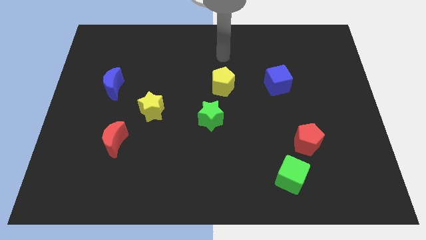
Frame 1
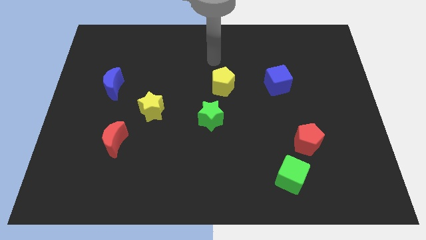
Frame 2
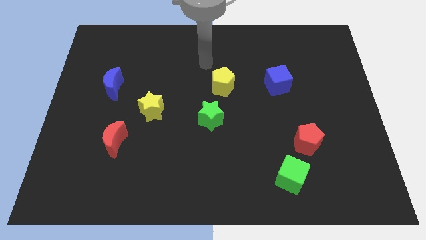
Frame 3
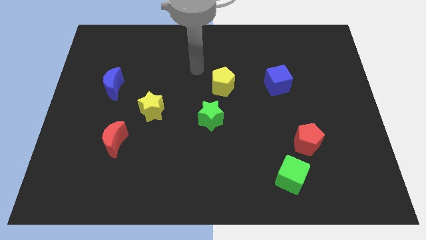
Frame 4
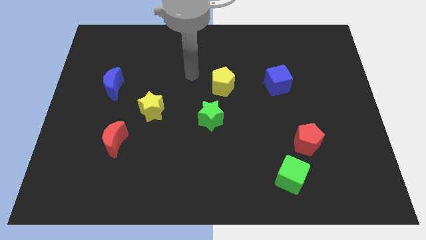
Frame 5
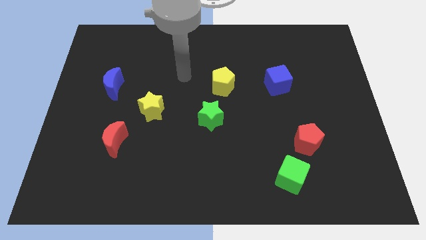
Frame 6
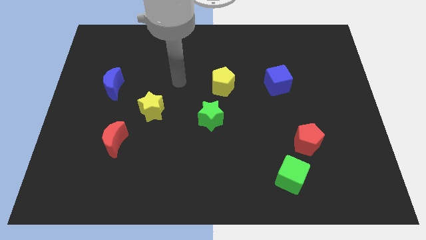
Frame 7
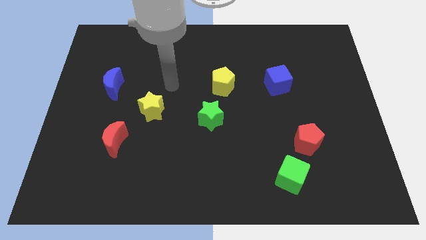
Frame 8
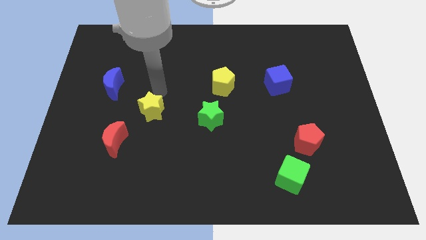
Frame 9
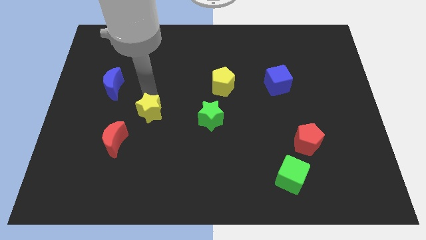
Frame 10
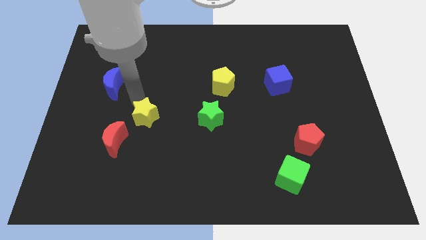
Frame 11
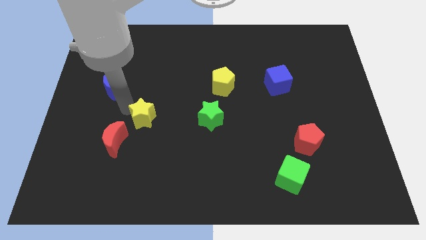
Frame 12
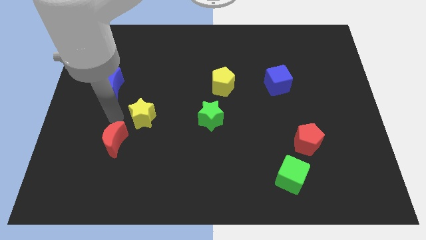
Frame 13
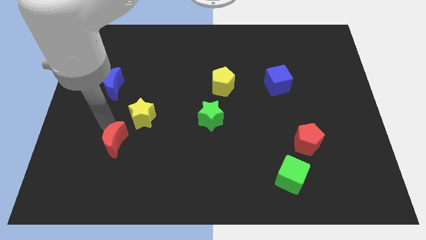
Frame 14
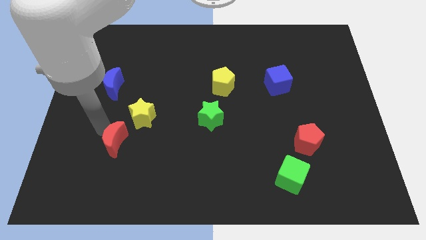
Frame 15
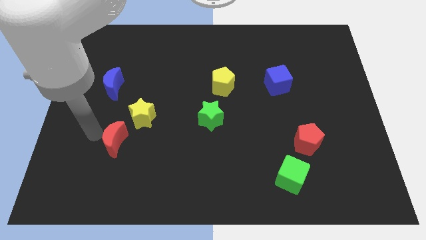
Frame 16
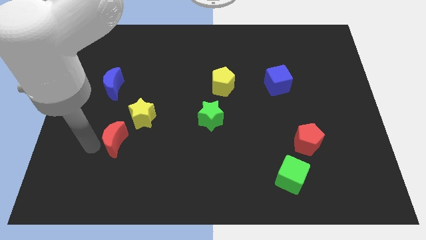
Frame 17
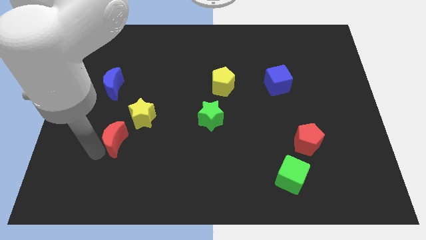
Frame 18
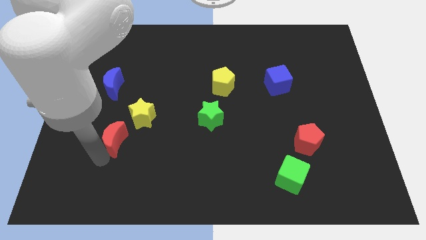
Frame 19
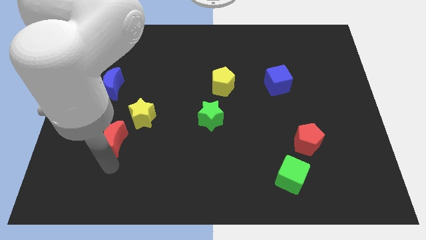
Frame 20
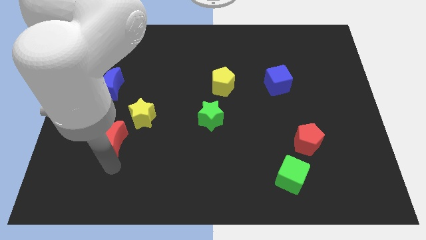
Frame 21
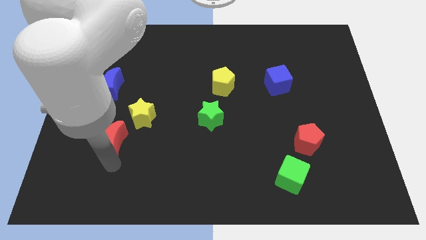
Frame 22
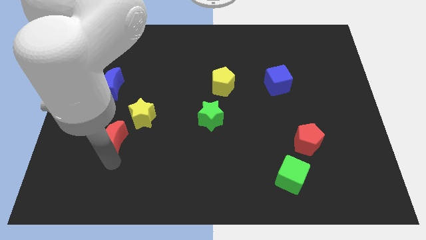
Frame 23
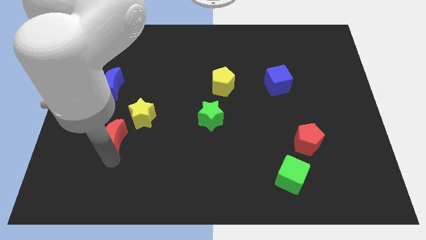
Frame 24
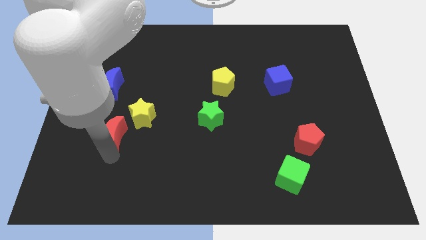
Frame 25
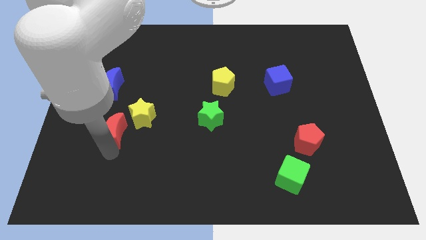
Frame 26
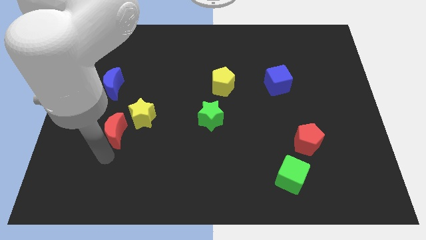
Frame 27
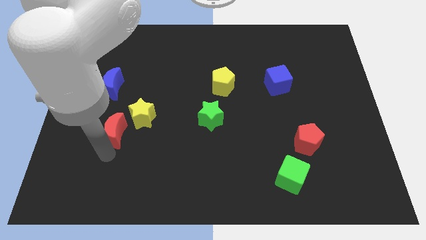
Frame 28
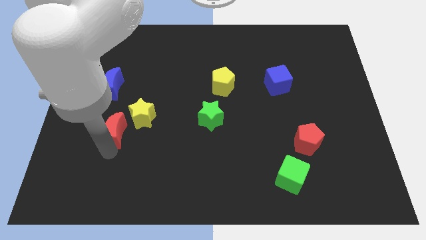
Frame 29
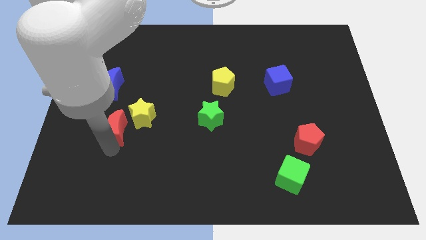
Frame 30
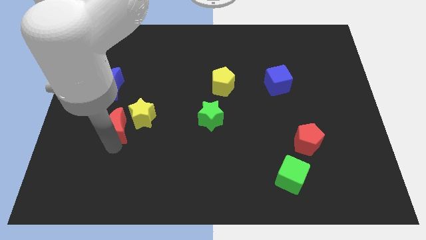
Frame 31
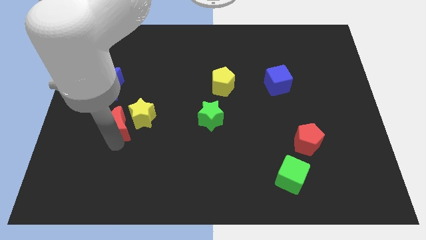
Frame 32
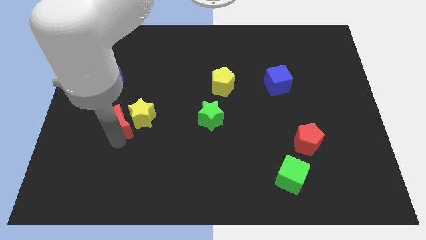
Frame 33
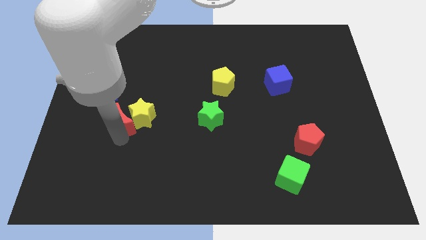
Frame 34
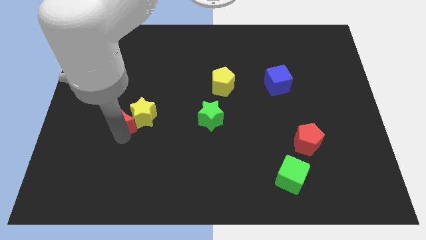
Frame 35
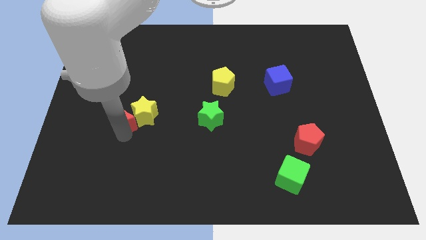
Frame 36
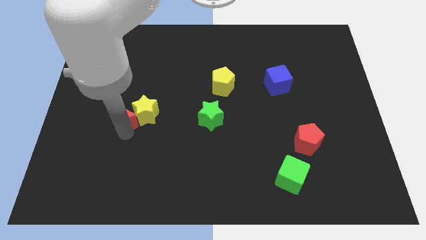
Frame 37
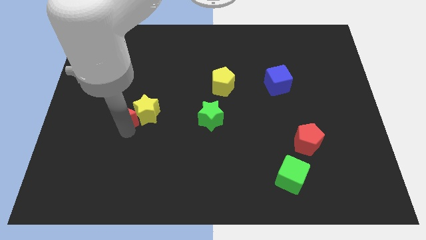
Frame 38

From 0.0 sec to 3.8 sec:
push the red moon up a little

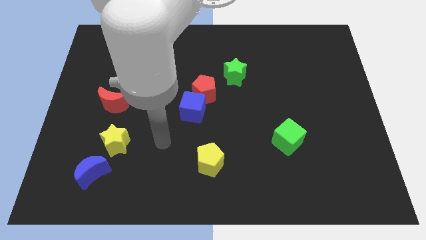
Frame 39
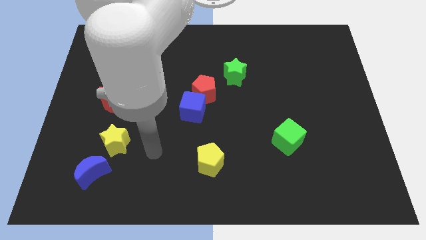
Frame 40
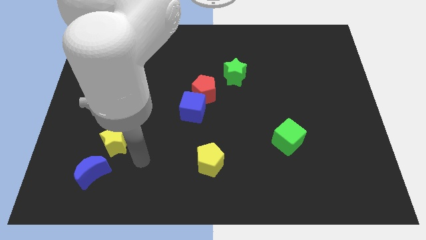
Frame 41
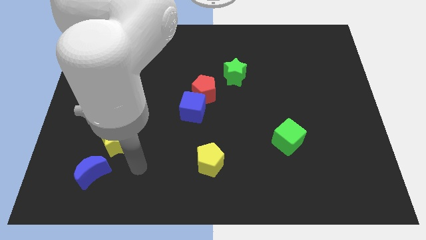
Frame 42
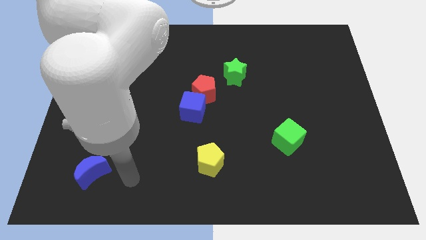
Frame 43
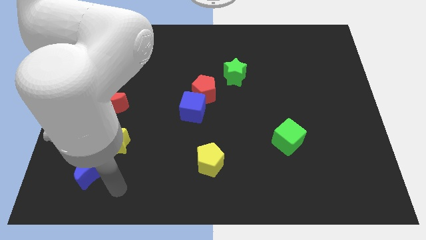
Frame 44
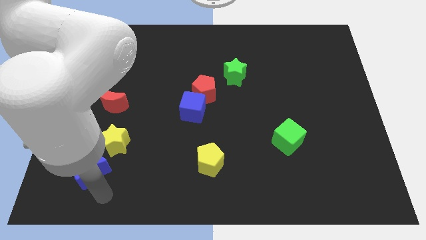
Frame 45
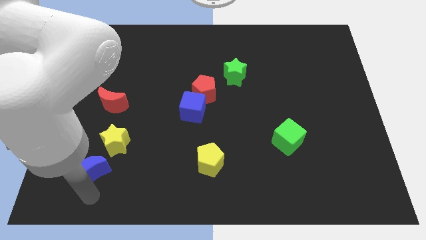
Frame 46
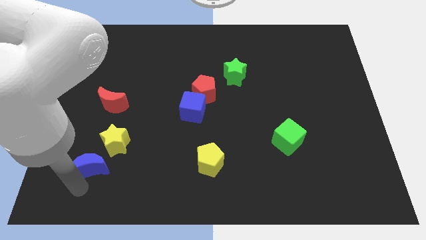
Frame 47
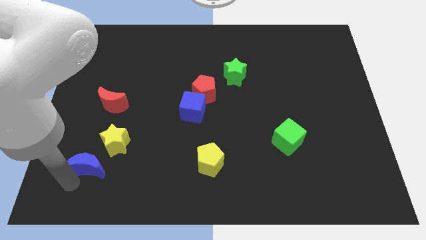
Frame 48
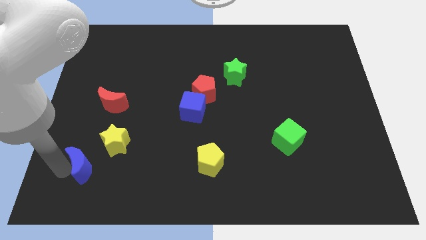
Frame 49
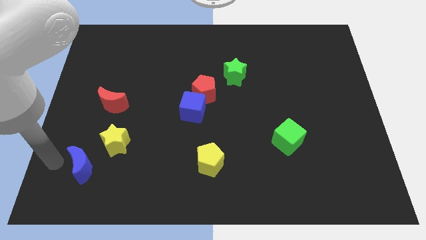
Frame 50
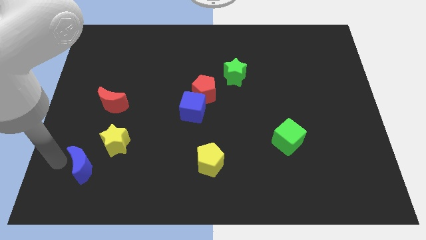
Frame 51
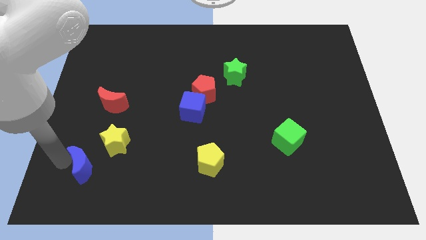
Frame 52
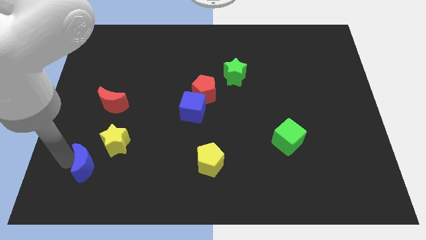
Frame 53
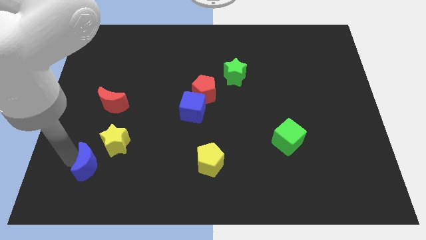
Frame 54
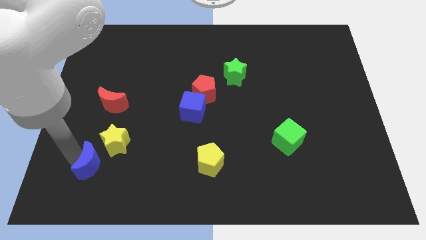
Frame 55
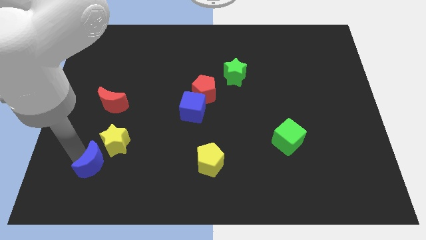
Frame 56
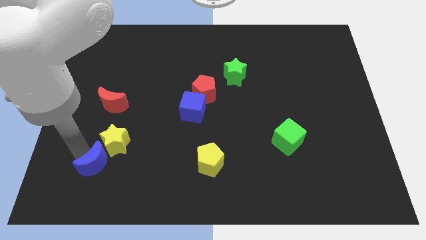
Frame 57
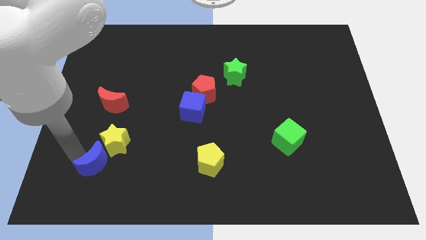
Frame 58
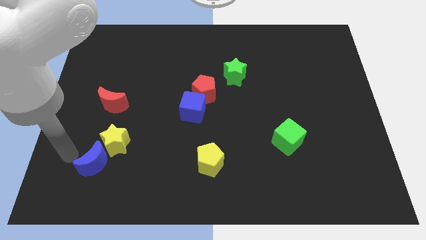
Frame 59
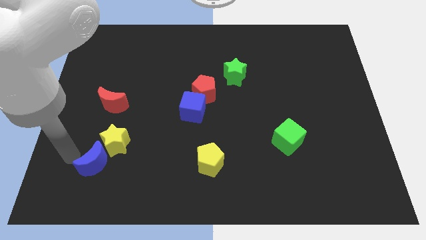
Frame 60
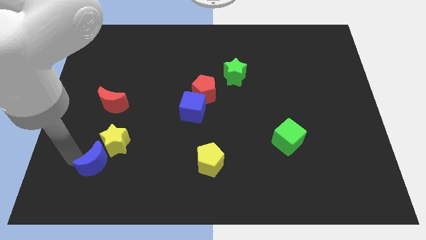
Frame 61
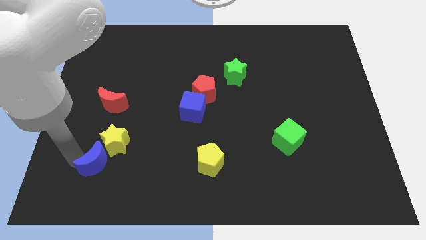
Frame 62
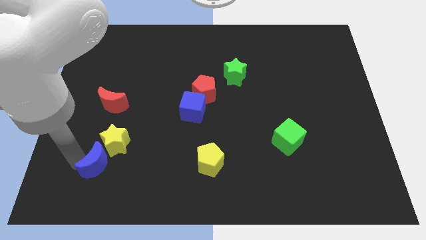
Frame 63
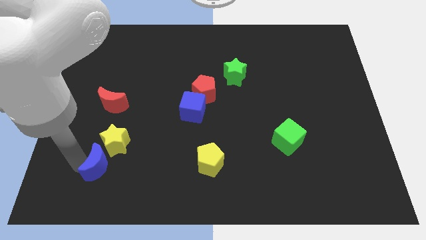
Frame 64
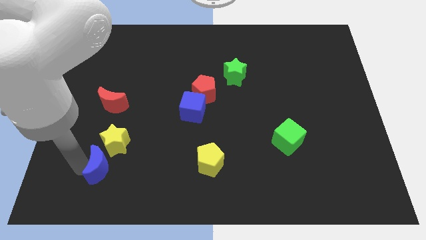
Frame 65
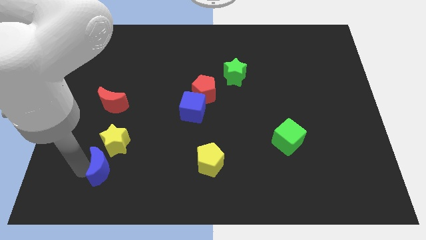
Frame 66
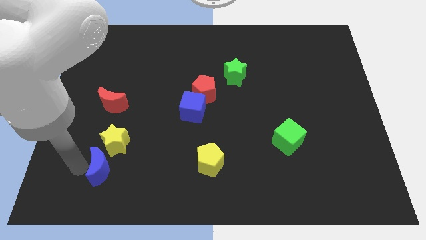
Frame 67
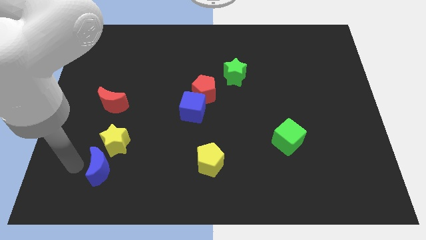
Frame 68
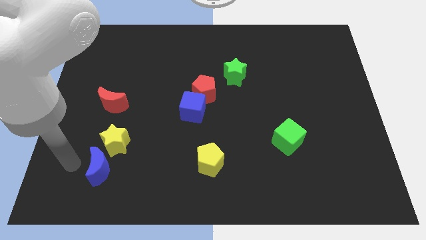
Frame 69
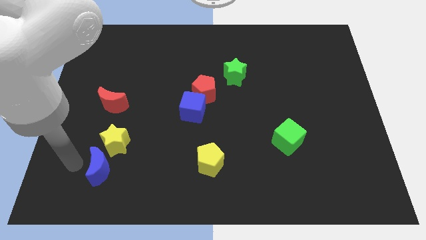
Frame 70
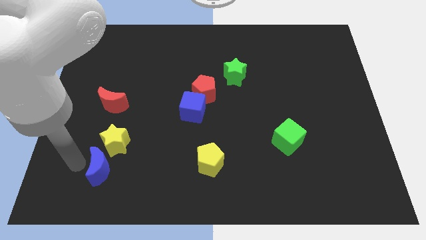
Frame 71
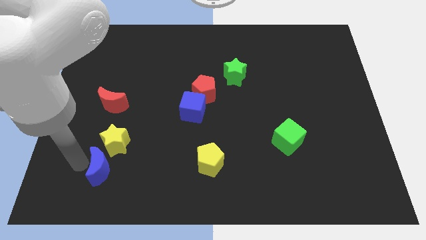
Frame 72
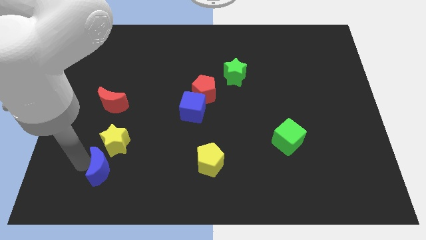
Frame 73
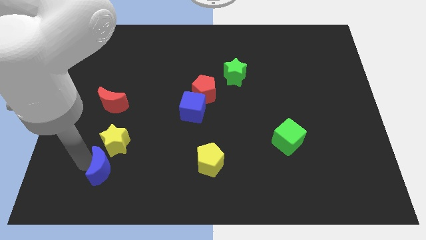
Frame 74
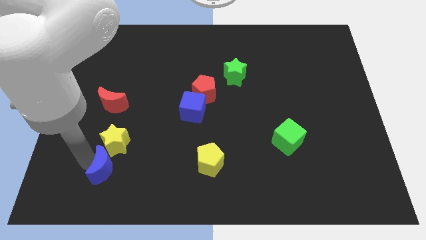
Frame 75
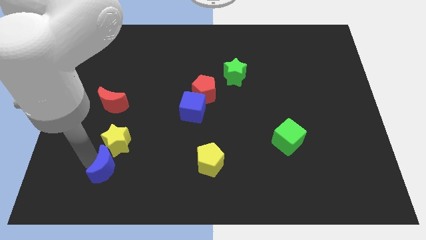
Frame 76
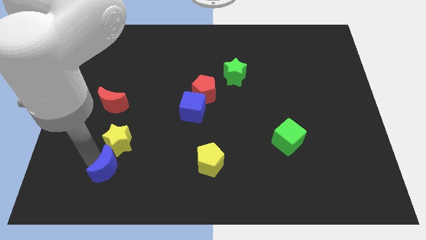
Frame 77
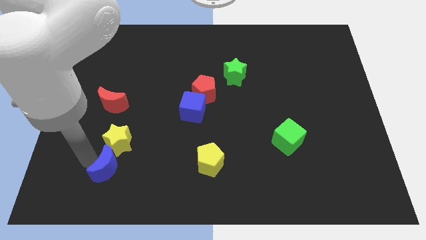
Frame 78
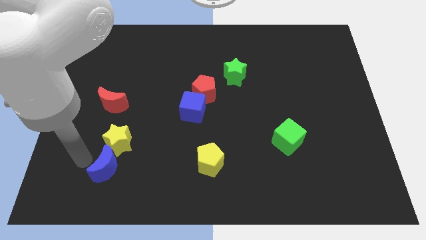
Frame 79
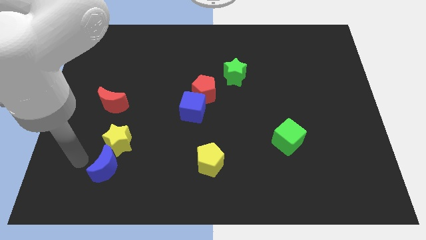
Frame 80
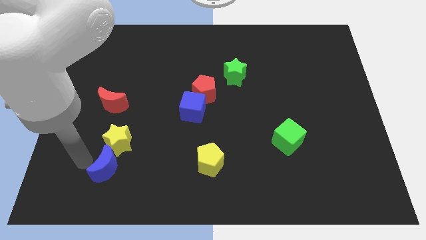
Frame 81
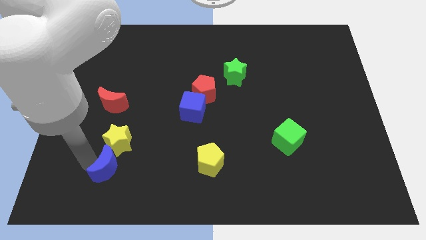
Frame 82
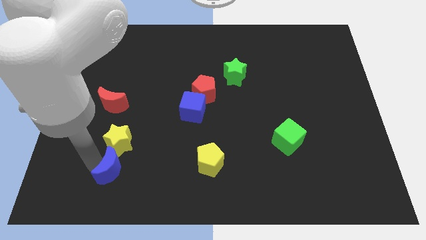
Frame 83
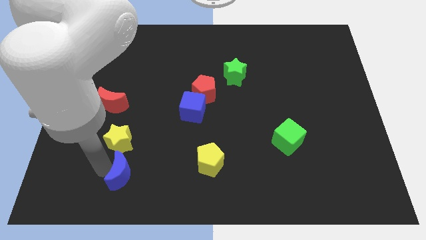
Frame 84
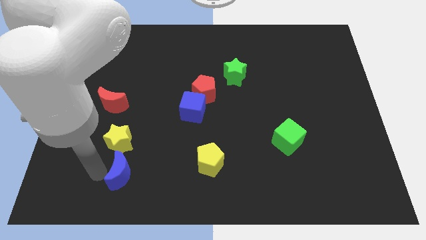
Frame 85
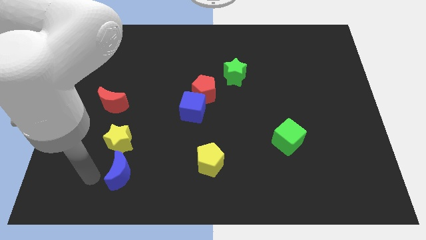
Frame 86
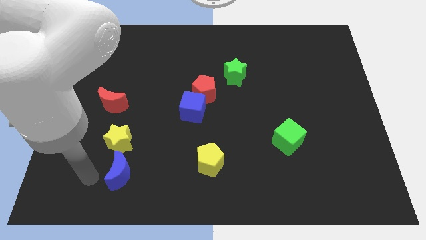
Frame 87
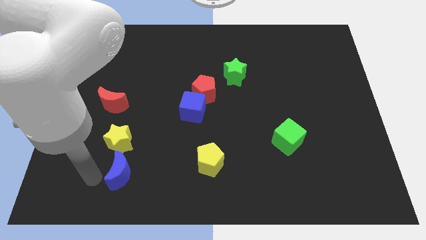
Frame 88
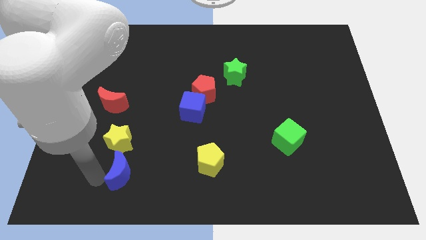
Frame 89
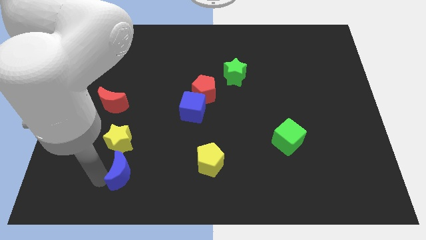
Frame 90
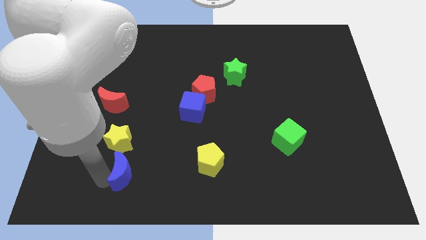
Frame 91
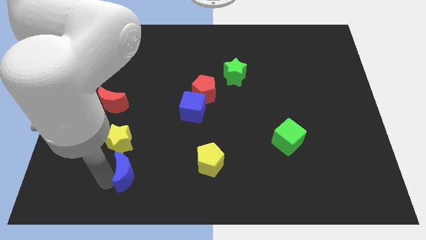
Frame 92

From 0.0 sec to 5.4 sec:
slide the blue moon a bit to the right
